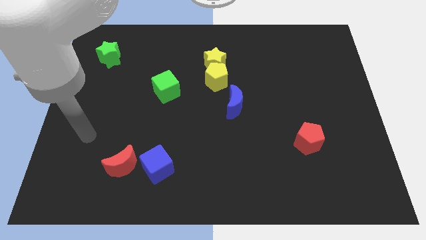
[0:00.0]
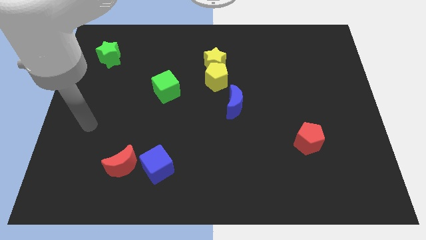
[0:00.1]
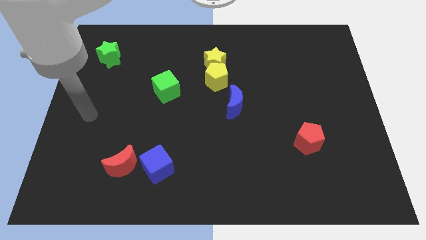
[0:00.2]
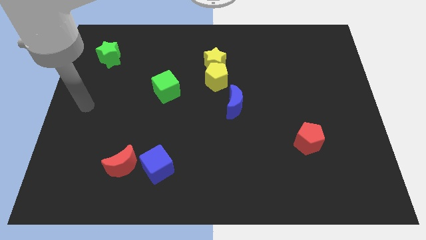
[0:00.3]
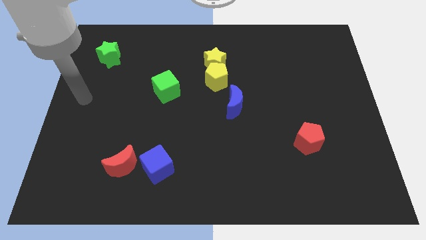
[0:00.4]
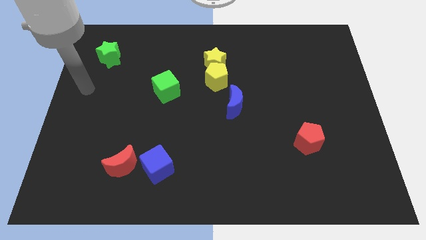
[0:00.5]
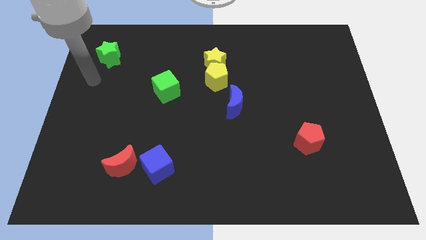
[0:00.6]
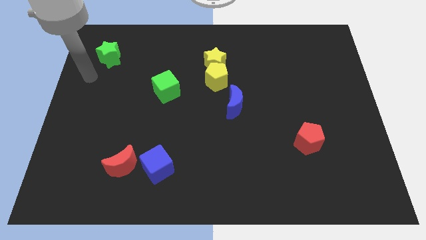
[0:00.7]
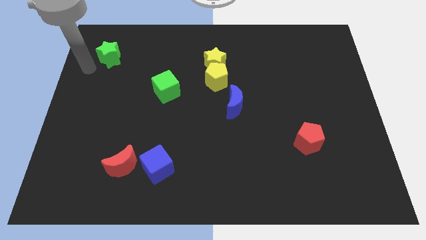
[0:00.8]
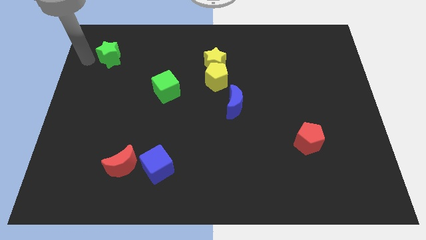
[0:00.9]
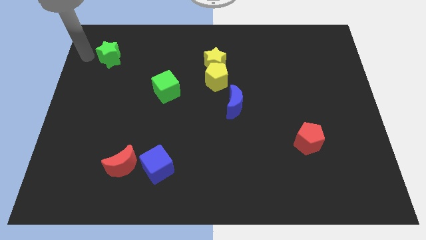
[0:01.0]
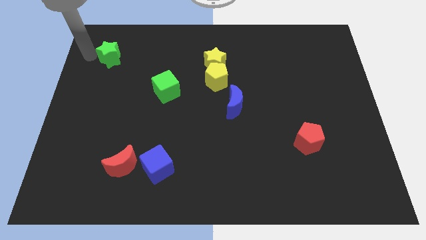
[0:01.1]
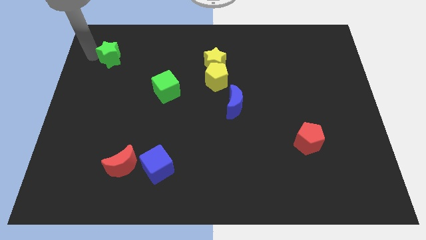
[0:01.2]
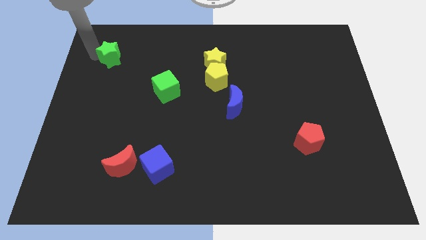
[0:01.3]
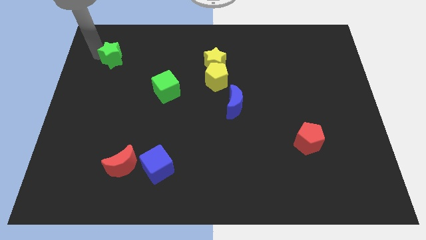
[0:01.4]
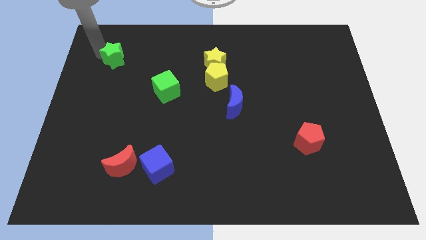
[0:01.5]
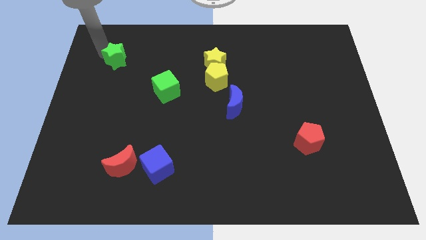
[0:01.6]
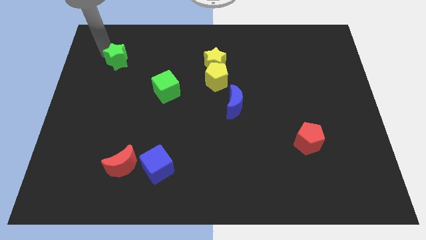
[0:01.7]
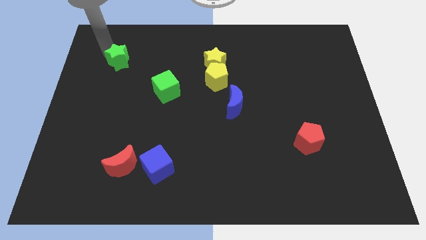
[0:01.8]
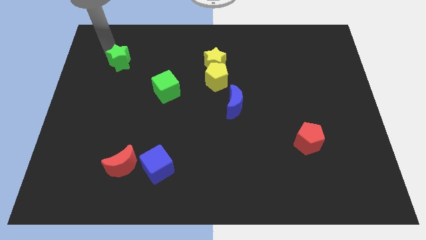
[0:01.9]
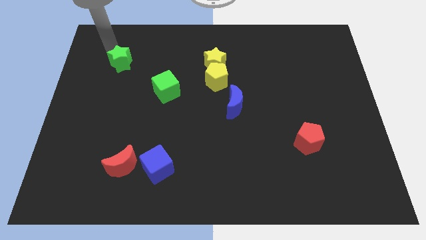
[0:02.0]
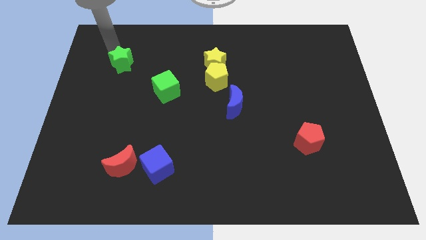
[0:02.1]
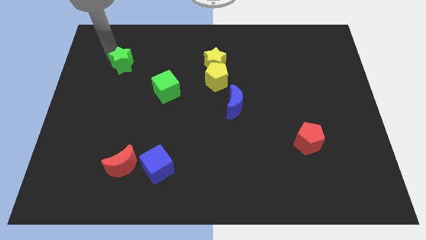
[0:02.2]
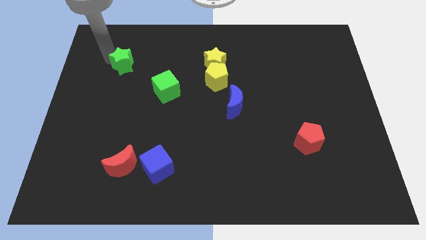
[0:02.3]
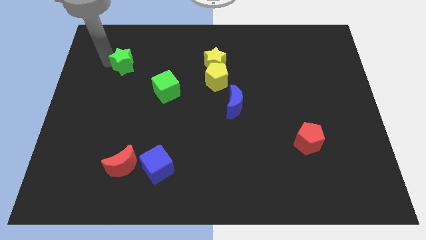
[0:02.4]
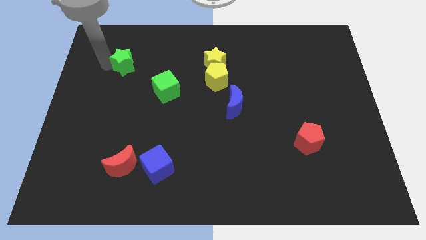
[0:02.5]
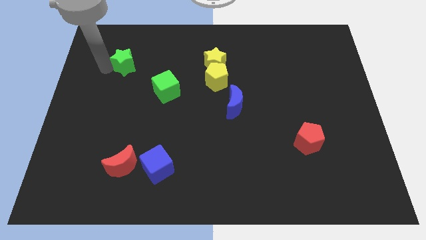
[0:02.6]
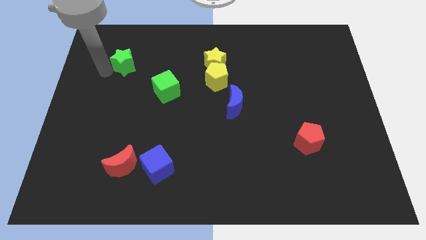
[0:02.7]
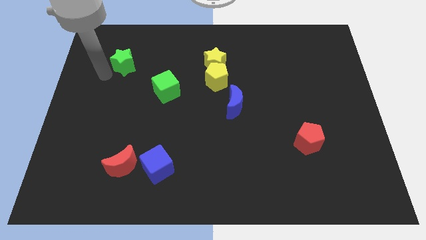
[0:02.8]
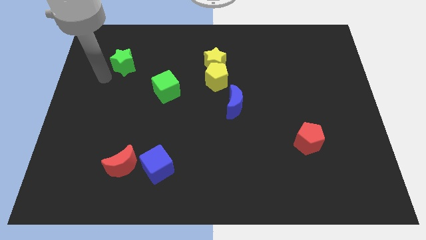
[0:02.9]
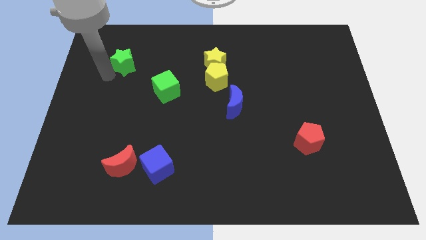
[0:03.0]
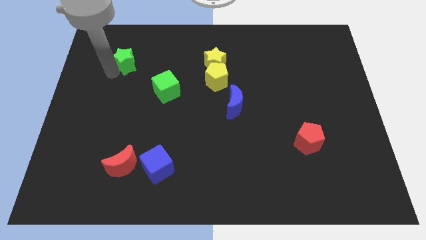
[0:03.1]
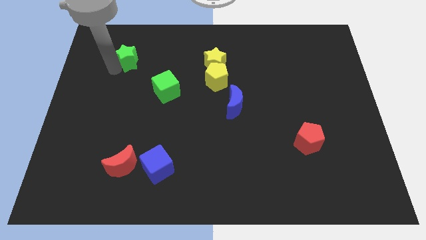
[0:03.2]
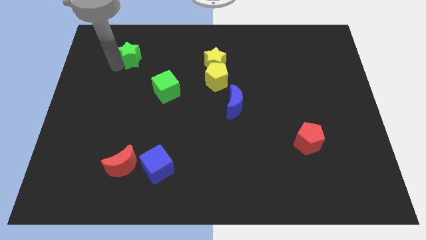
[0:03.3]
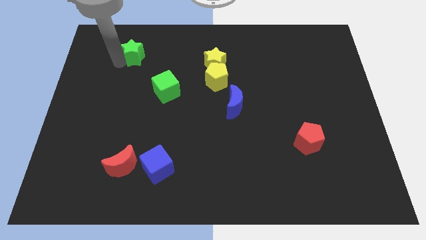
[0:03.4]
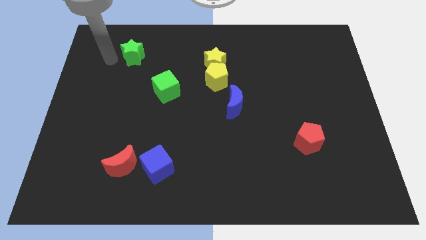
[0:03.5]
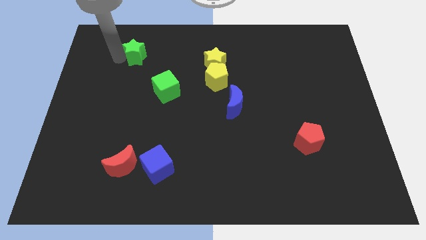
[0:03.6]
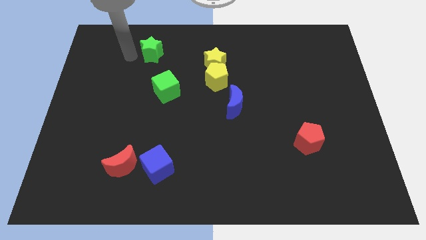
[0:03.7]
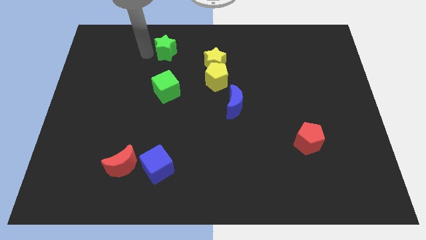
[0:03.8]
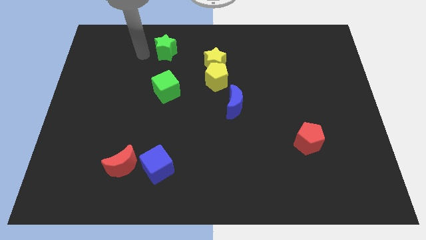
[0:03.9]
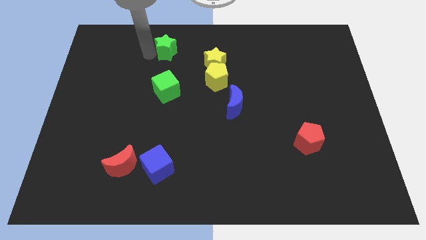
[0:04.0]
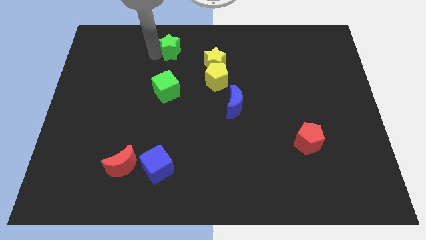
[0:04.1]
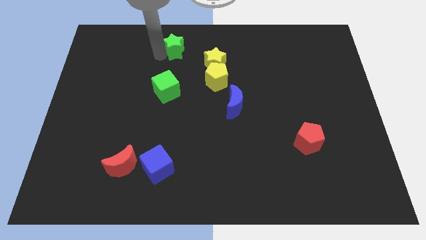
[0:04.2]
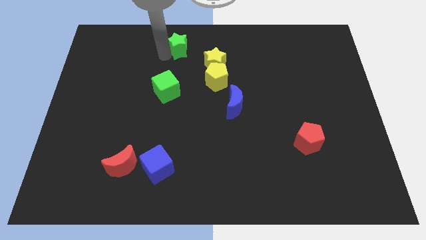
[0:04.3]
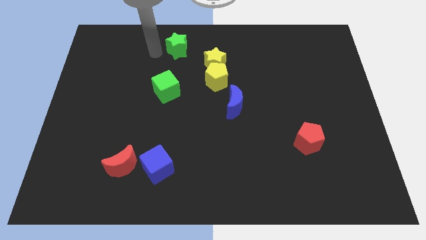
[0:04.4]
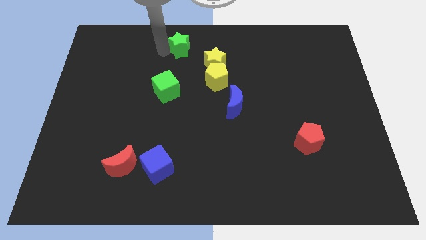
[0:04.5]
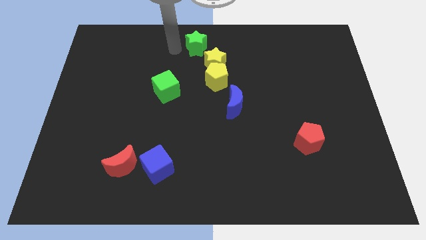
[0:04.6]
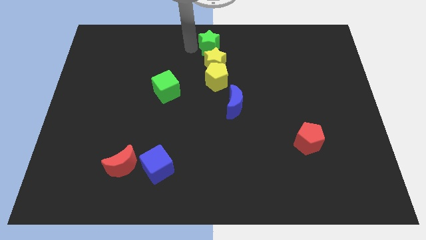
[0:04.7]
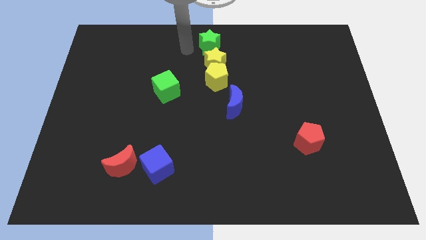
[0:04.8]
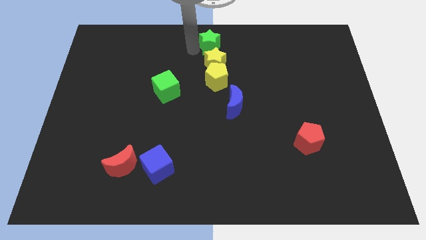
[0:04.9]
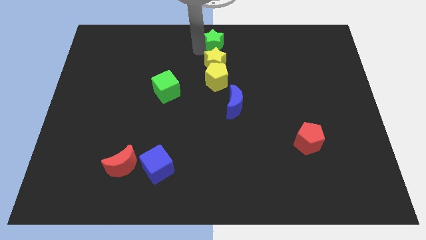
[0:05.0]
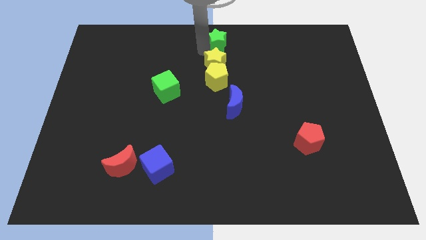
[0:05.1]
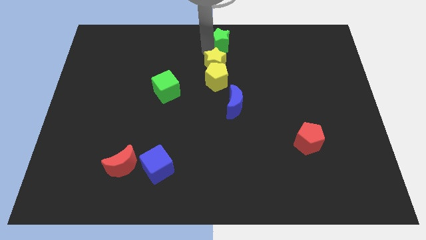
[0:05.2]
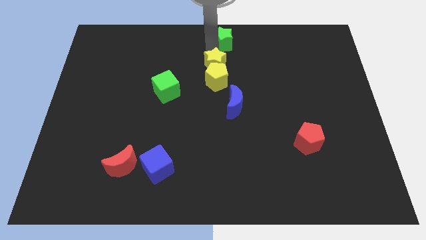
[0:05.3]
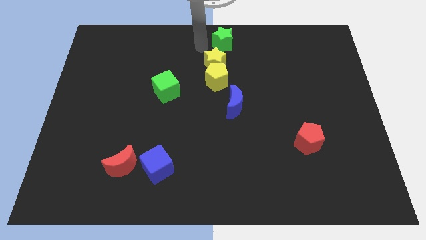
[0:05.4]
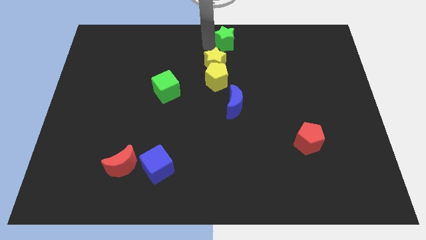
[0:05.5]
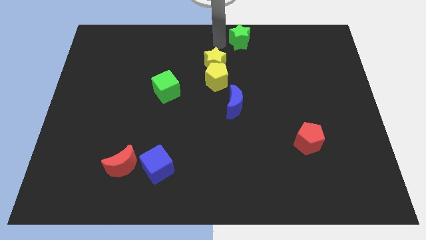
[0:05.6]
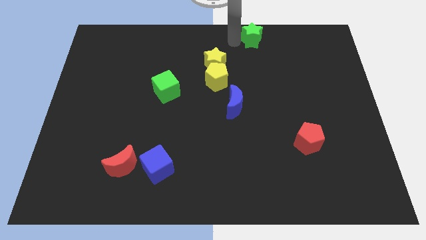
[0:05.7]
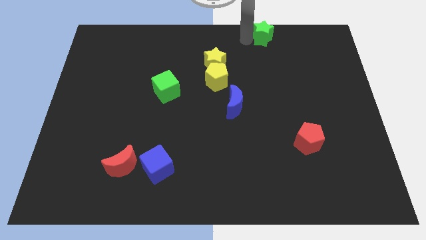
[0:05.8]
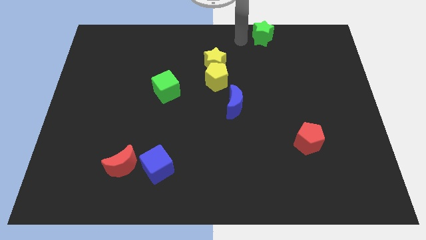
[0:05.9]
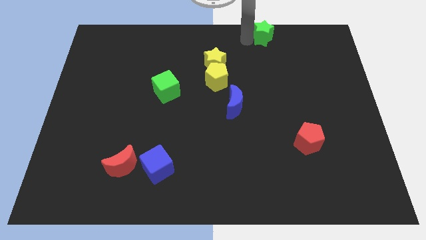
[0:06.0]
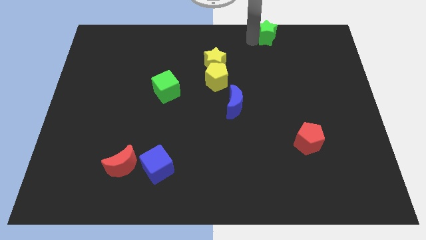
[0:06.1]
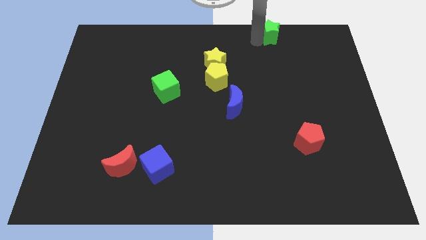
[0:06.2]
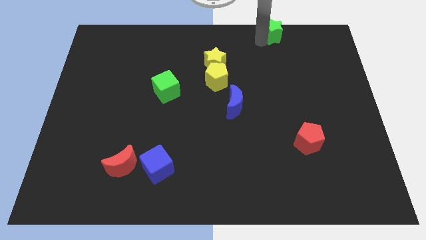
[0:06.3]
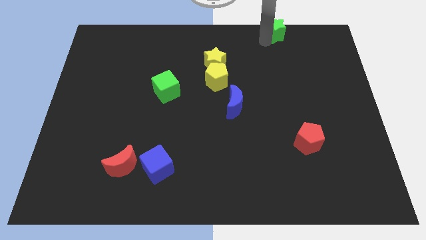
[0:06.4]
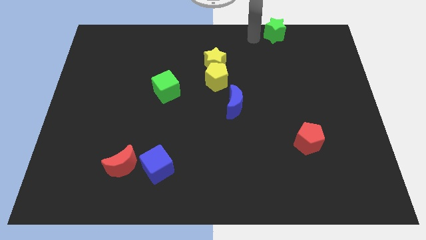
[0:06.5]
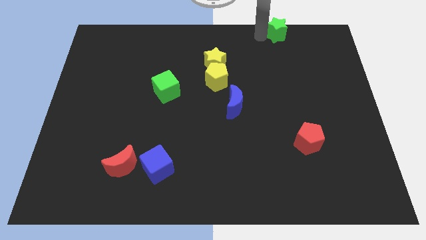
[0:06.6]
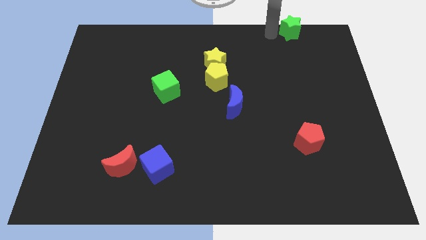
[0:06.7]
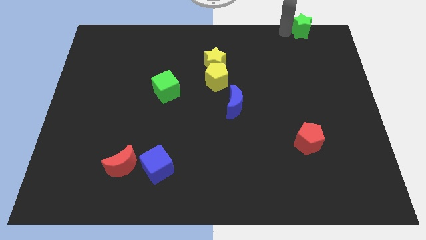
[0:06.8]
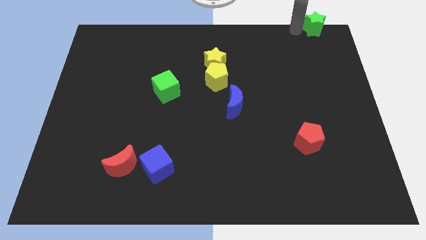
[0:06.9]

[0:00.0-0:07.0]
slide the green star to the top right
